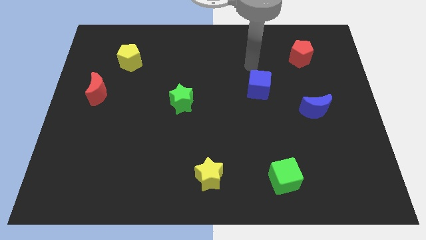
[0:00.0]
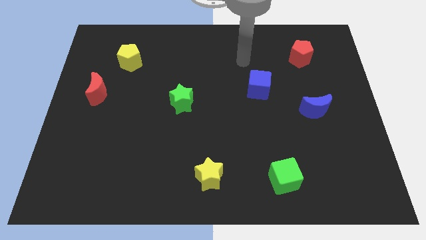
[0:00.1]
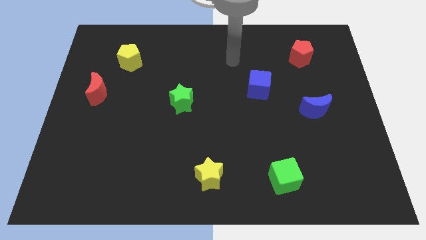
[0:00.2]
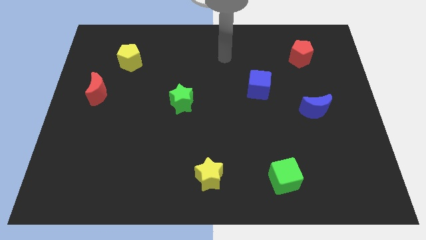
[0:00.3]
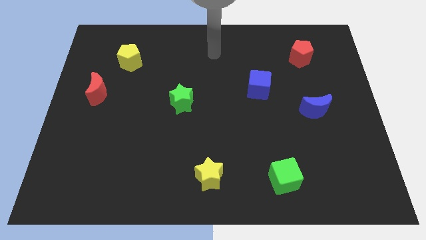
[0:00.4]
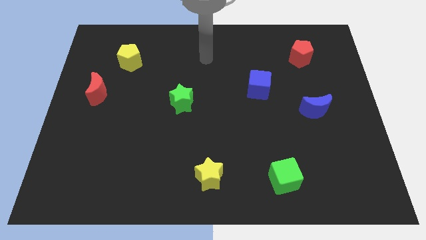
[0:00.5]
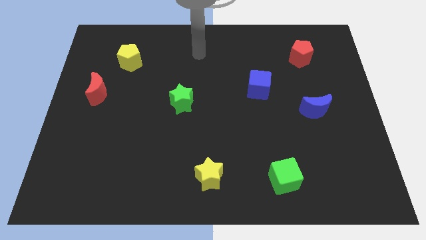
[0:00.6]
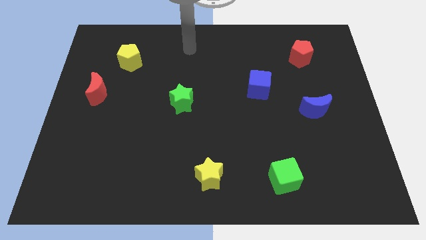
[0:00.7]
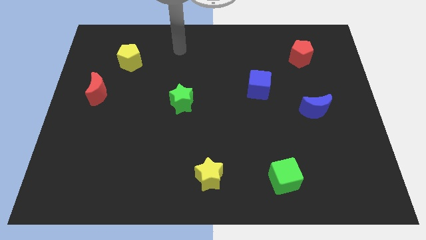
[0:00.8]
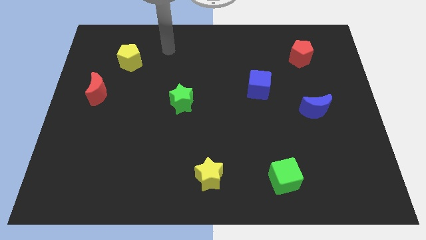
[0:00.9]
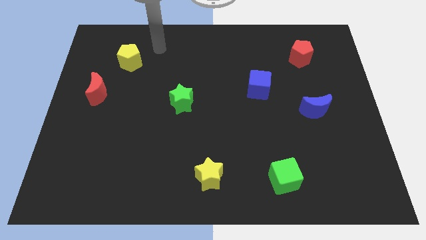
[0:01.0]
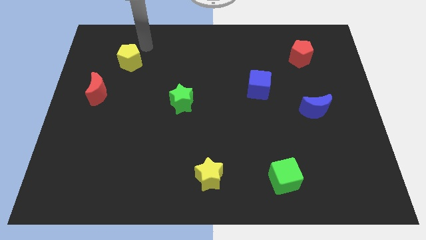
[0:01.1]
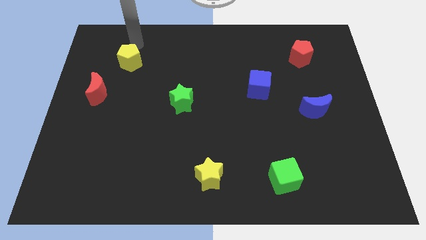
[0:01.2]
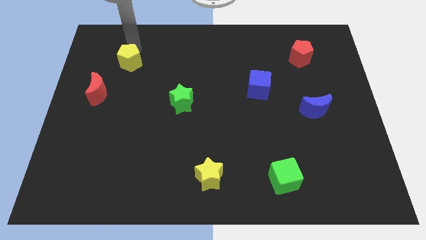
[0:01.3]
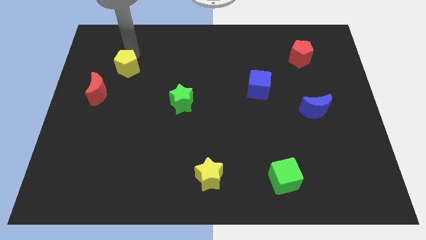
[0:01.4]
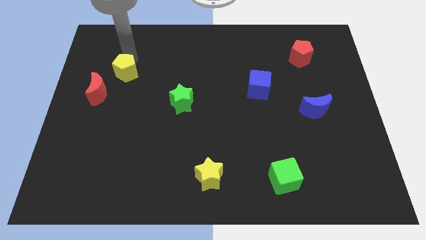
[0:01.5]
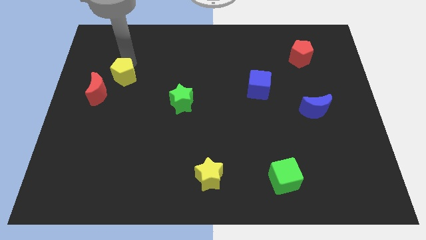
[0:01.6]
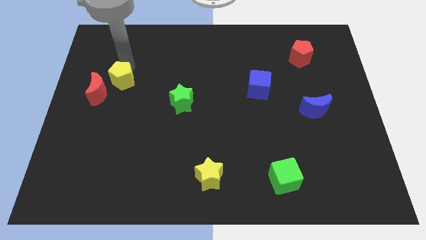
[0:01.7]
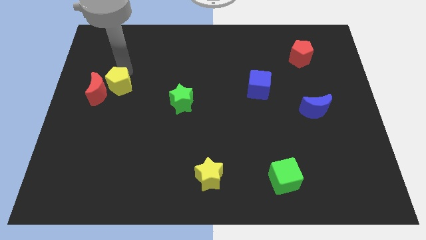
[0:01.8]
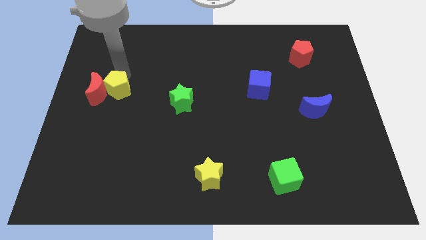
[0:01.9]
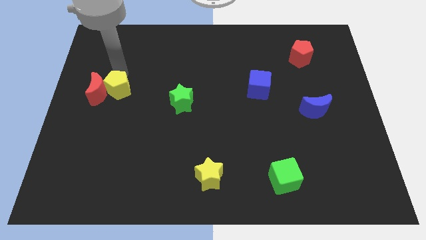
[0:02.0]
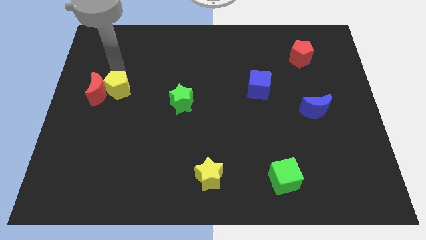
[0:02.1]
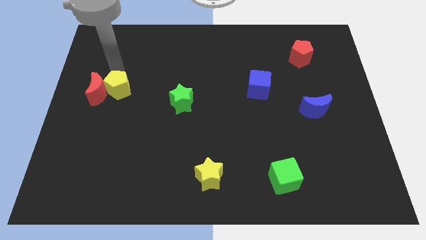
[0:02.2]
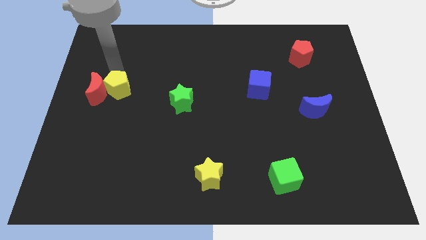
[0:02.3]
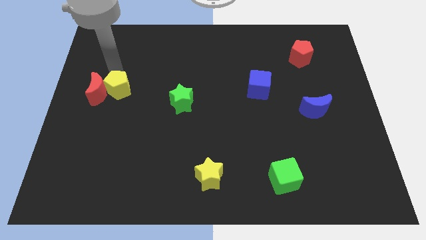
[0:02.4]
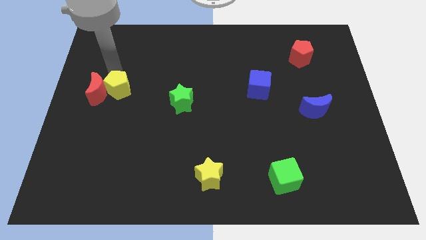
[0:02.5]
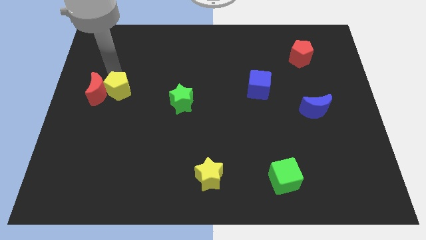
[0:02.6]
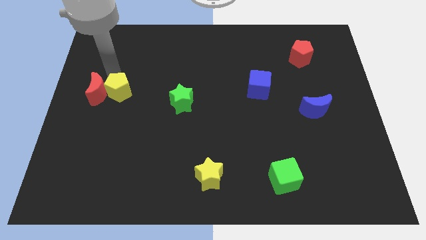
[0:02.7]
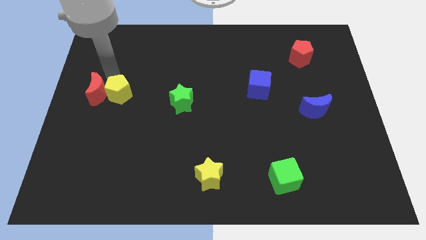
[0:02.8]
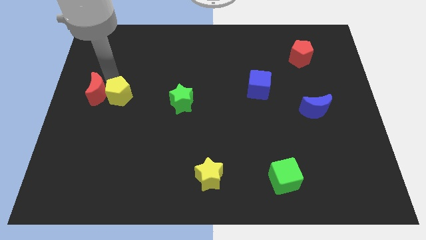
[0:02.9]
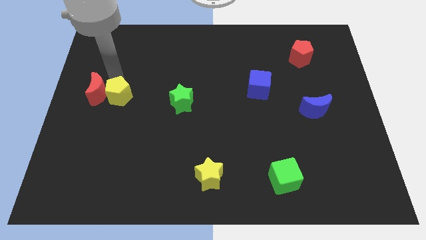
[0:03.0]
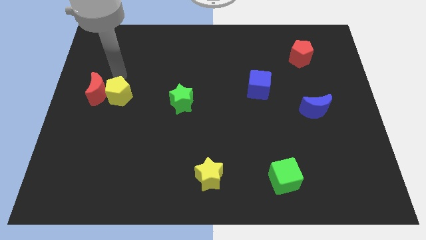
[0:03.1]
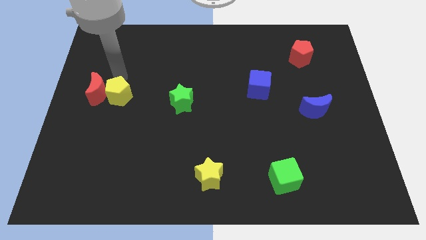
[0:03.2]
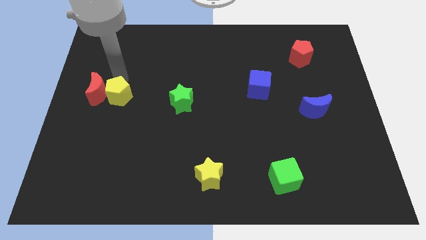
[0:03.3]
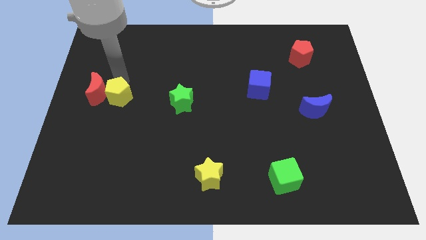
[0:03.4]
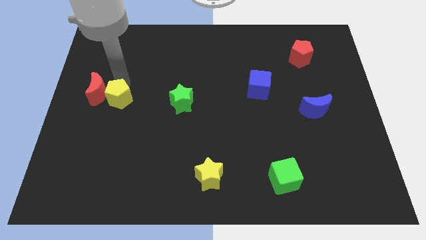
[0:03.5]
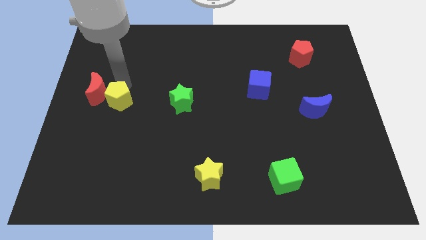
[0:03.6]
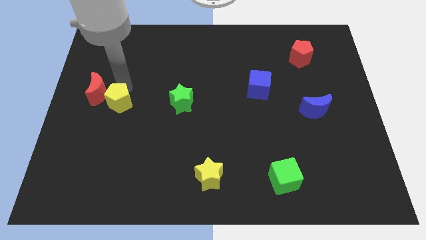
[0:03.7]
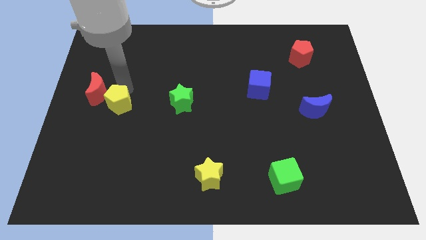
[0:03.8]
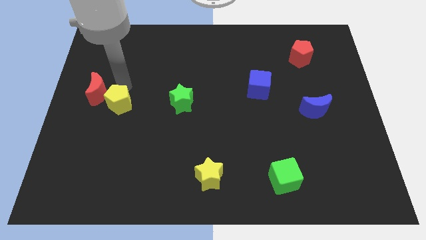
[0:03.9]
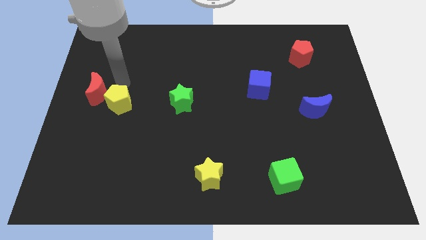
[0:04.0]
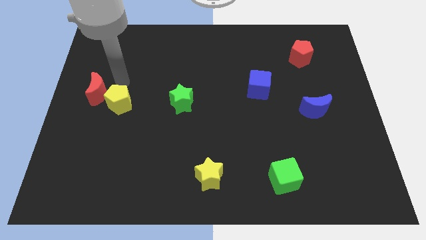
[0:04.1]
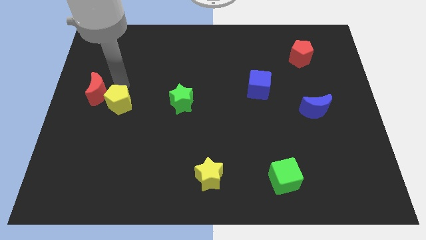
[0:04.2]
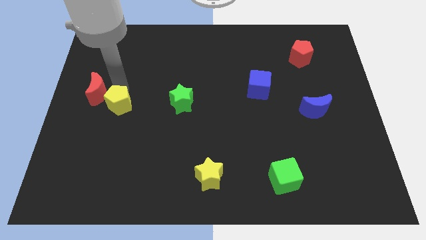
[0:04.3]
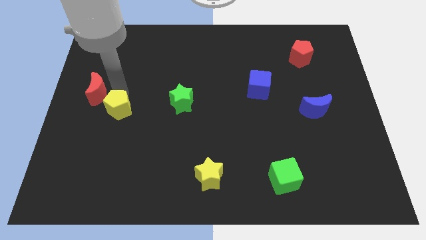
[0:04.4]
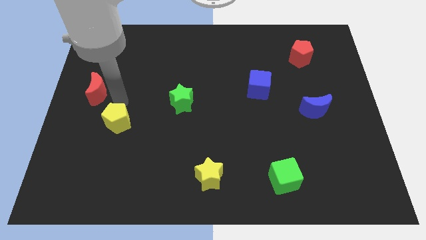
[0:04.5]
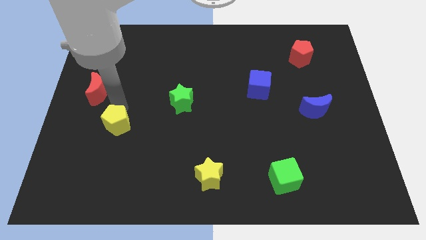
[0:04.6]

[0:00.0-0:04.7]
push the yellow pentagon down

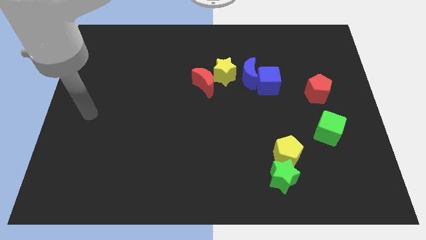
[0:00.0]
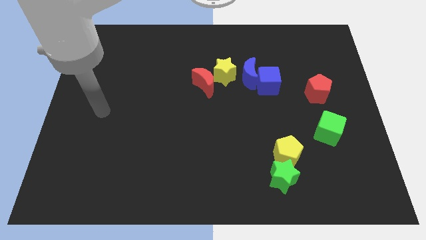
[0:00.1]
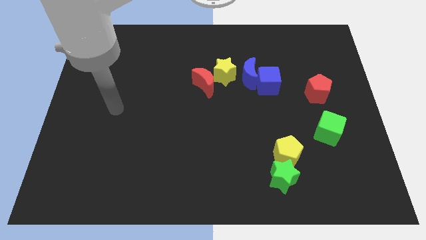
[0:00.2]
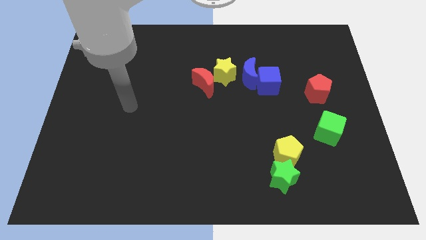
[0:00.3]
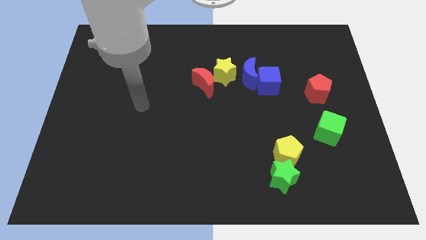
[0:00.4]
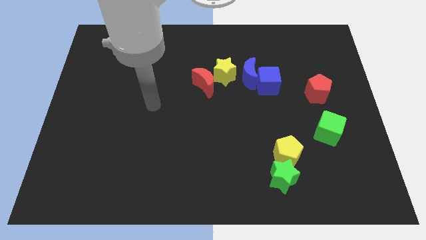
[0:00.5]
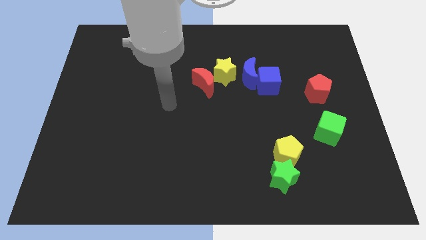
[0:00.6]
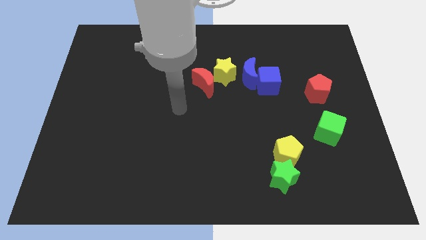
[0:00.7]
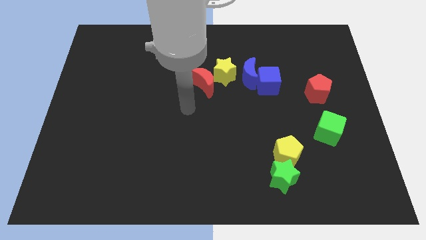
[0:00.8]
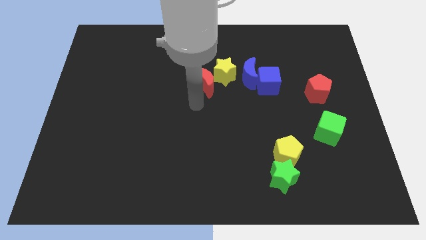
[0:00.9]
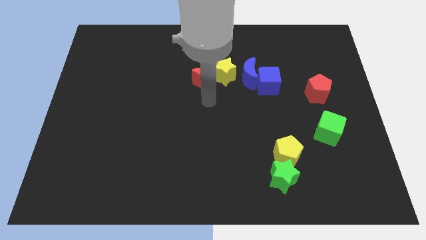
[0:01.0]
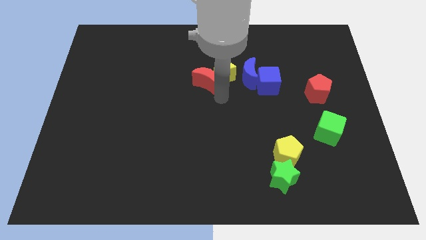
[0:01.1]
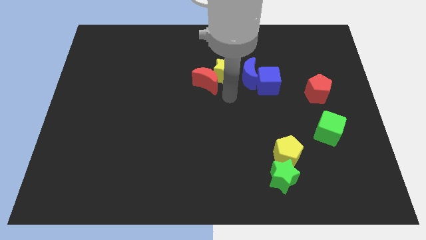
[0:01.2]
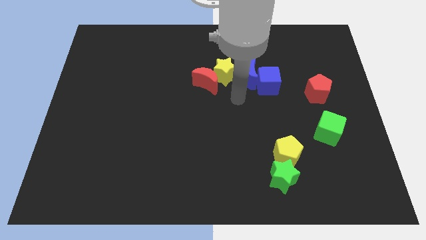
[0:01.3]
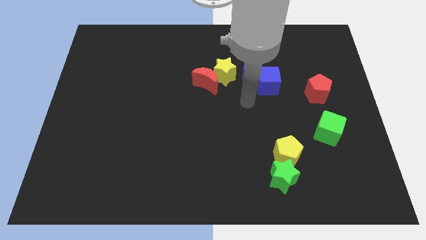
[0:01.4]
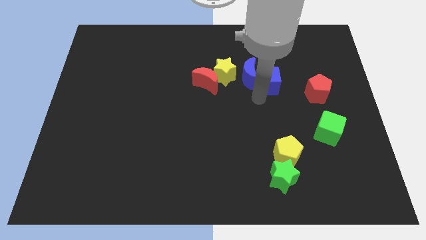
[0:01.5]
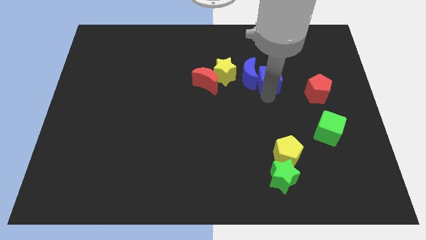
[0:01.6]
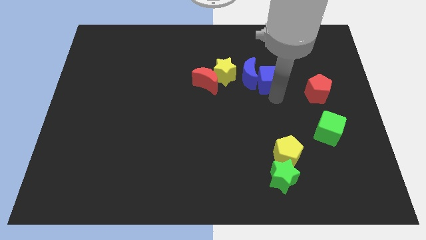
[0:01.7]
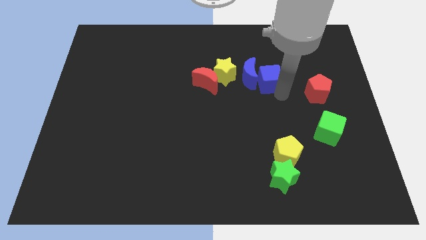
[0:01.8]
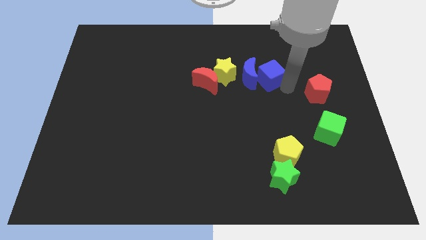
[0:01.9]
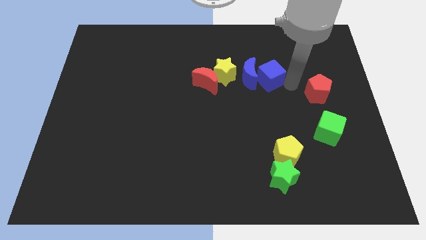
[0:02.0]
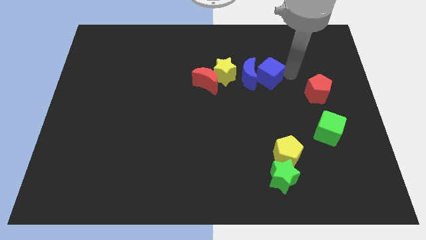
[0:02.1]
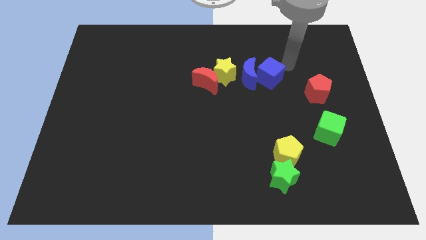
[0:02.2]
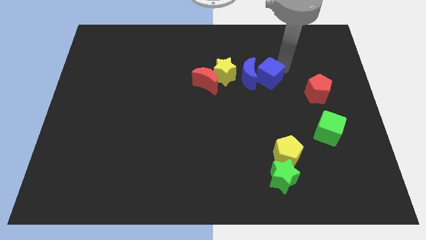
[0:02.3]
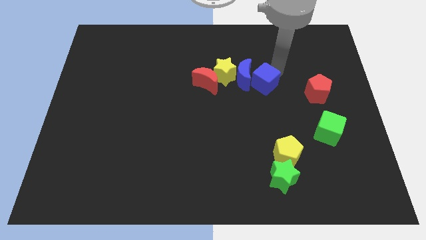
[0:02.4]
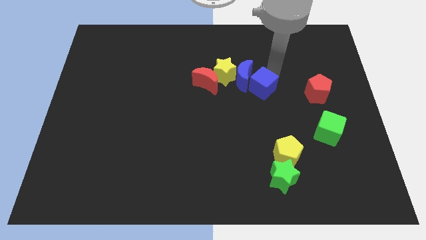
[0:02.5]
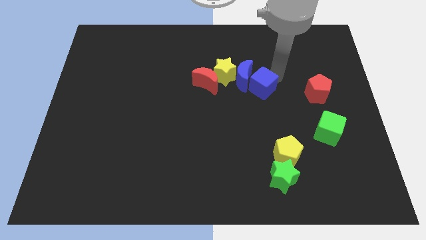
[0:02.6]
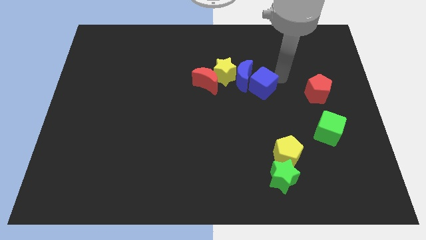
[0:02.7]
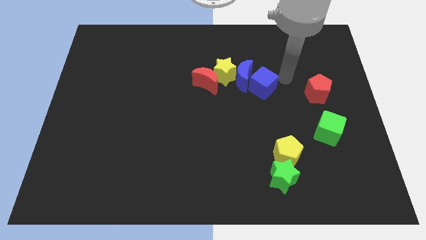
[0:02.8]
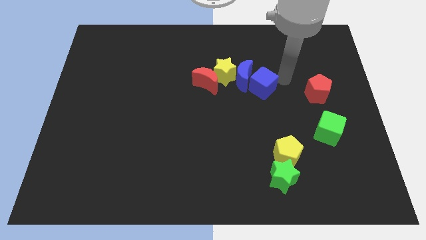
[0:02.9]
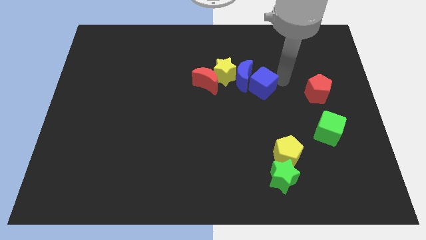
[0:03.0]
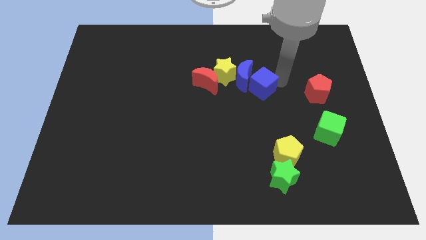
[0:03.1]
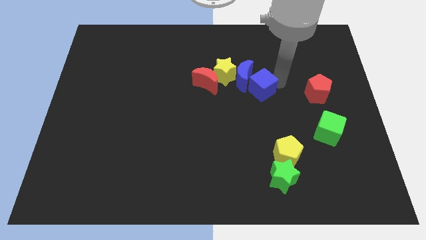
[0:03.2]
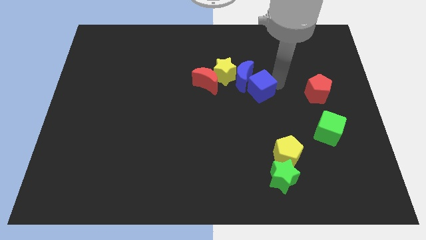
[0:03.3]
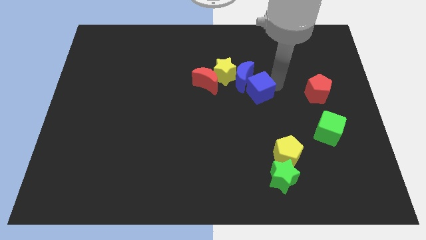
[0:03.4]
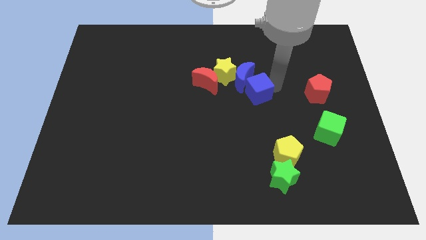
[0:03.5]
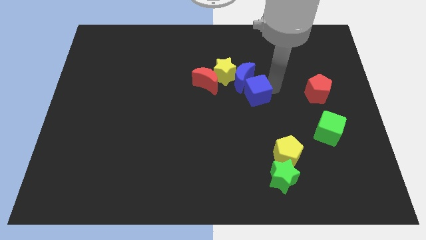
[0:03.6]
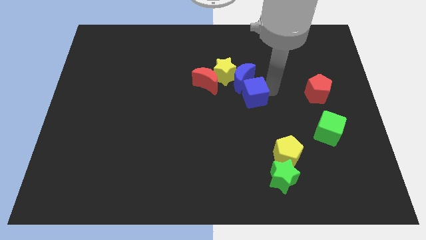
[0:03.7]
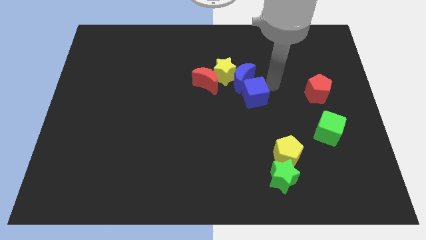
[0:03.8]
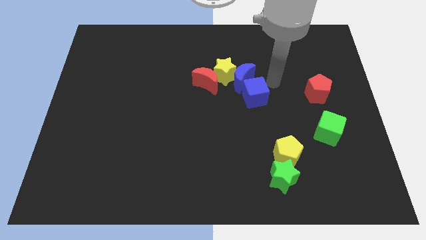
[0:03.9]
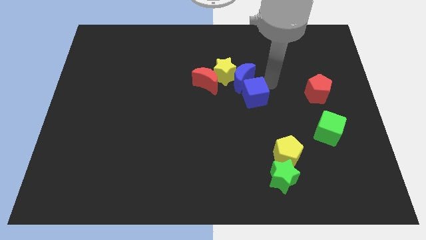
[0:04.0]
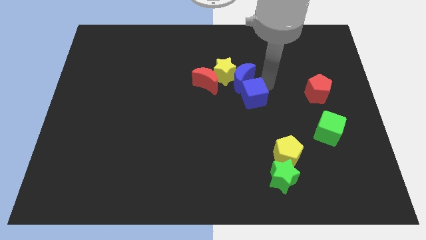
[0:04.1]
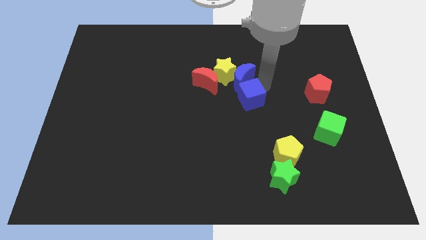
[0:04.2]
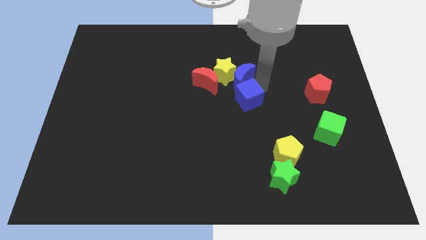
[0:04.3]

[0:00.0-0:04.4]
push the blue cube downwards and left diagonally somewhat
